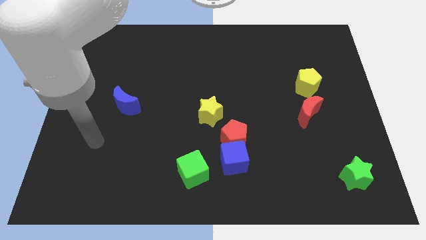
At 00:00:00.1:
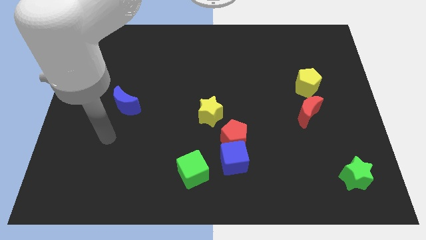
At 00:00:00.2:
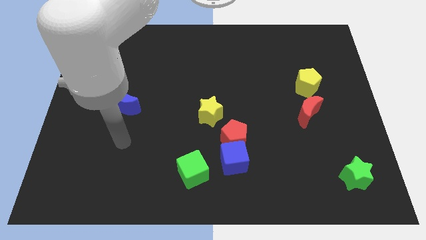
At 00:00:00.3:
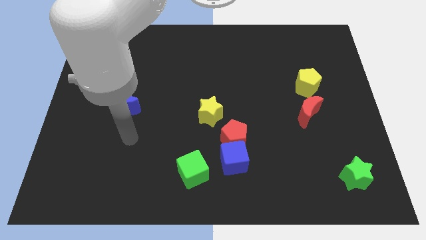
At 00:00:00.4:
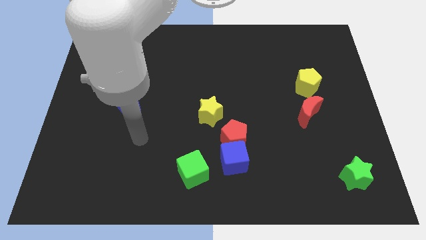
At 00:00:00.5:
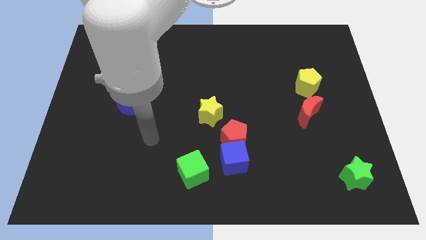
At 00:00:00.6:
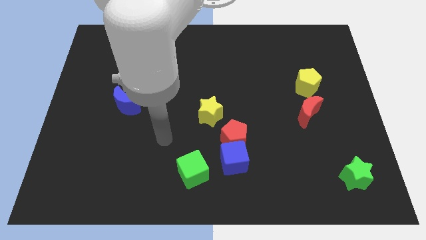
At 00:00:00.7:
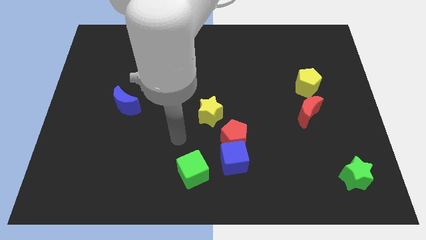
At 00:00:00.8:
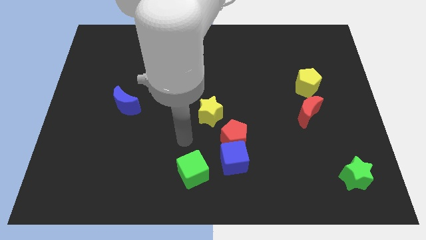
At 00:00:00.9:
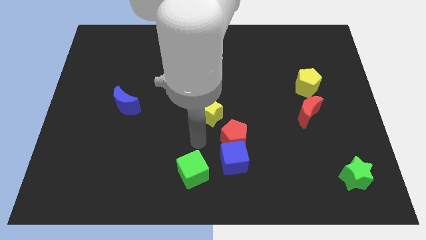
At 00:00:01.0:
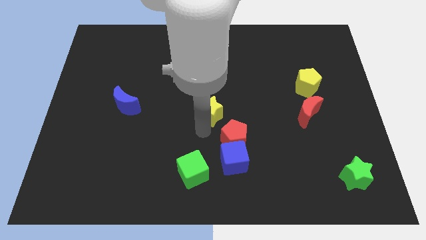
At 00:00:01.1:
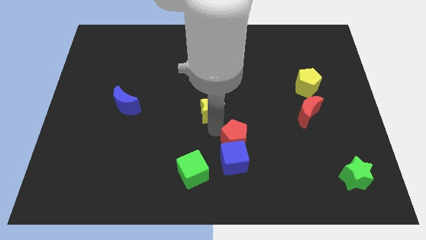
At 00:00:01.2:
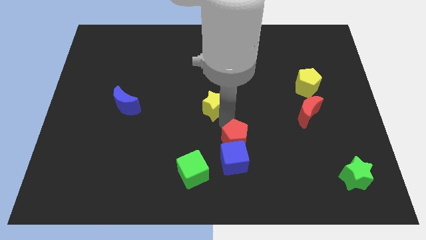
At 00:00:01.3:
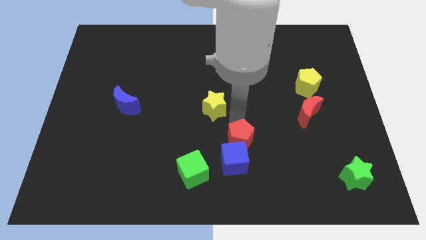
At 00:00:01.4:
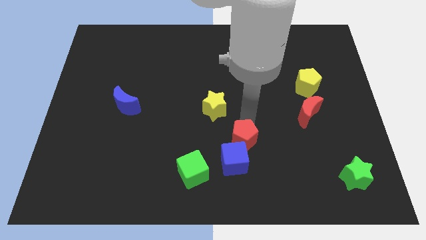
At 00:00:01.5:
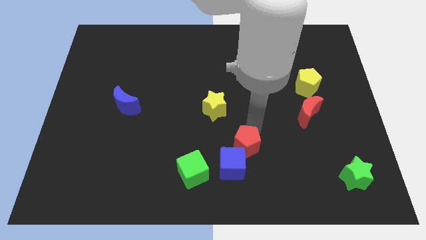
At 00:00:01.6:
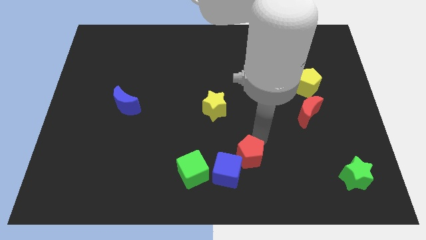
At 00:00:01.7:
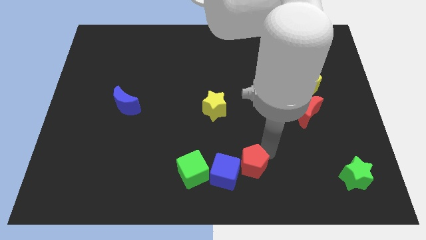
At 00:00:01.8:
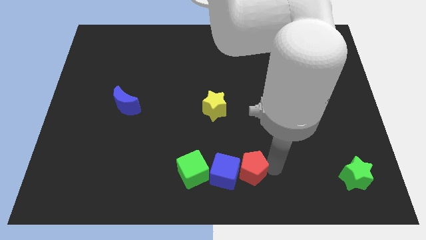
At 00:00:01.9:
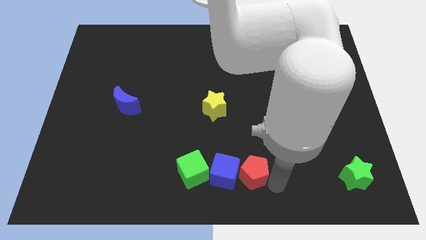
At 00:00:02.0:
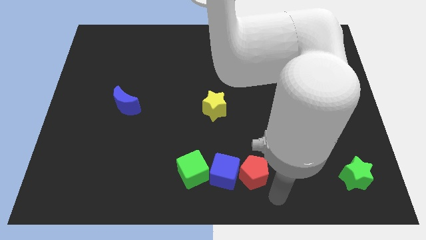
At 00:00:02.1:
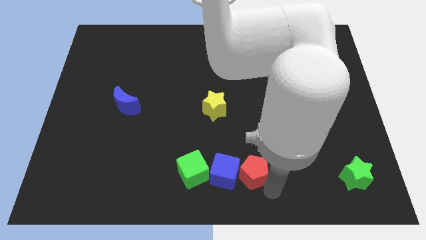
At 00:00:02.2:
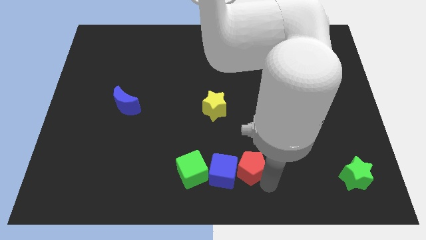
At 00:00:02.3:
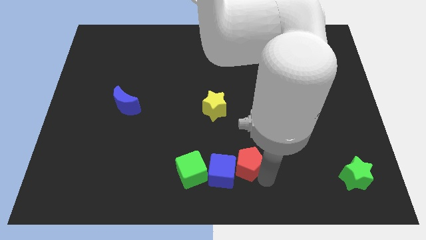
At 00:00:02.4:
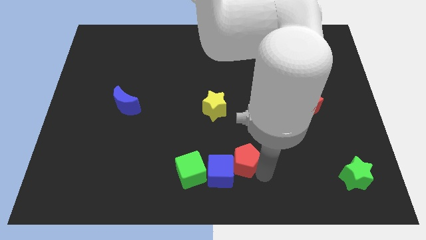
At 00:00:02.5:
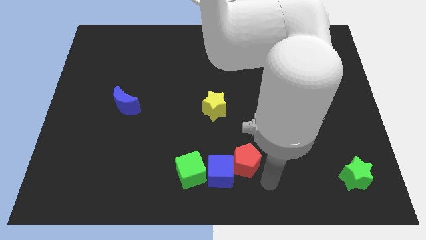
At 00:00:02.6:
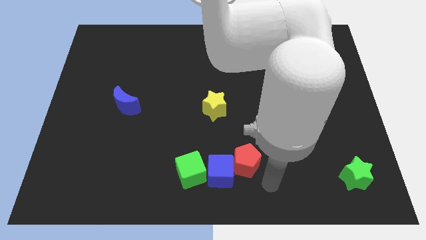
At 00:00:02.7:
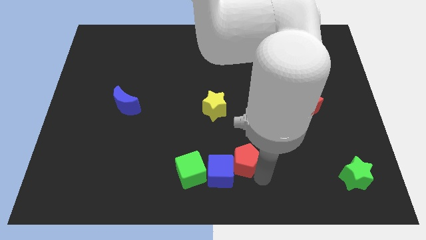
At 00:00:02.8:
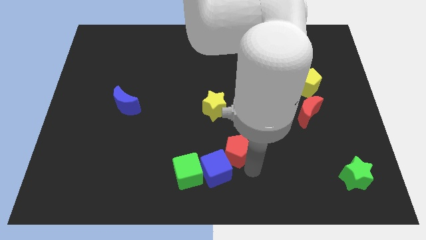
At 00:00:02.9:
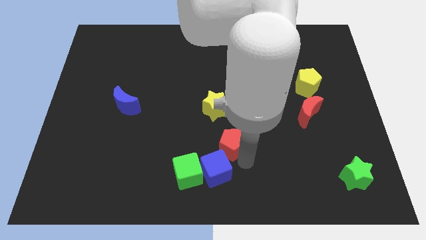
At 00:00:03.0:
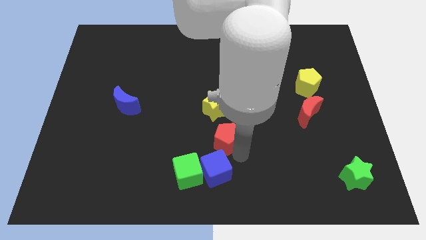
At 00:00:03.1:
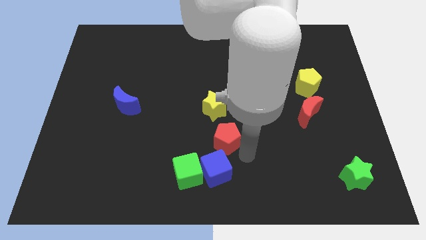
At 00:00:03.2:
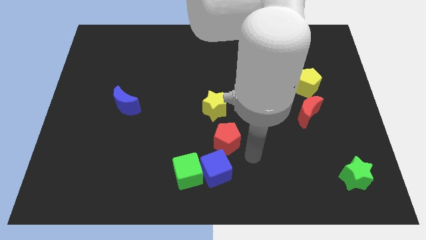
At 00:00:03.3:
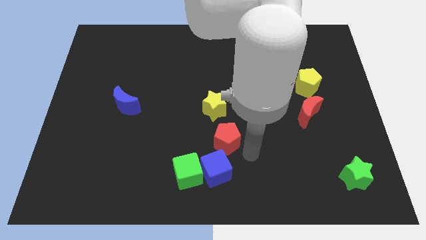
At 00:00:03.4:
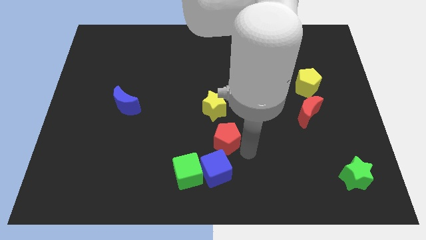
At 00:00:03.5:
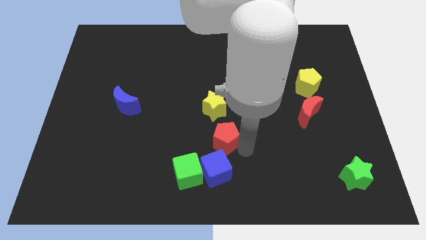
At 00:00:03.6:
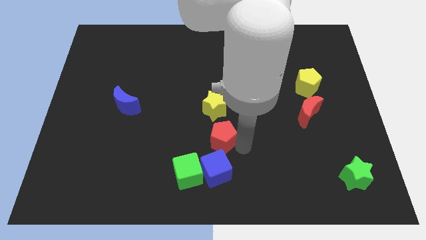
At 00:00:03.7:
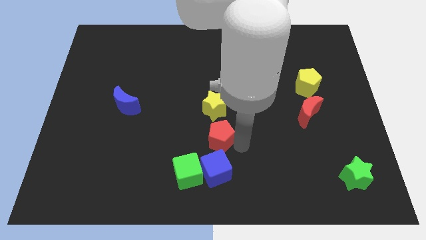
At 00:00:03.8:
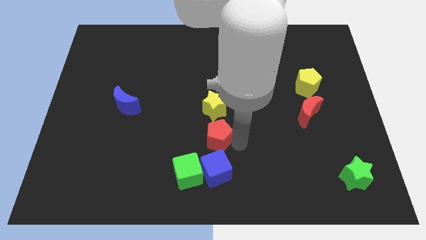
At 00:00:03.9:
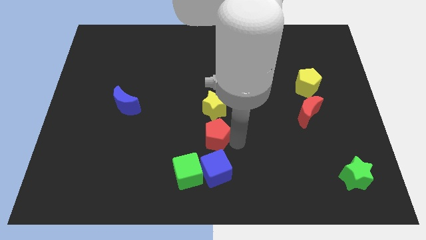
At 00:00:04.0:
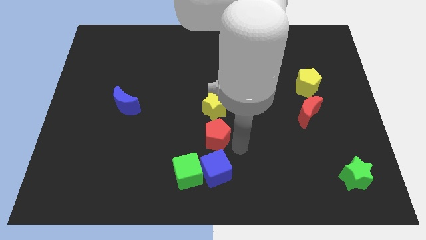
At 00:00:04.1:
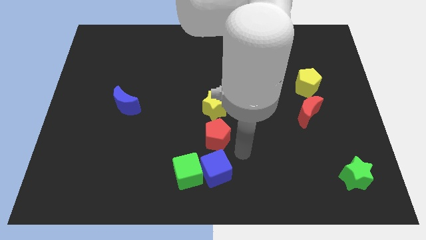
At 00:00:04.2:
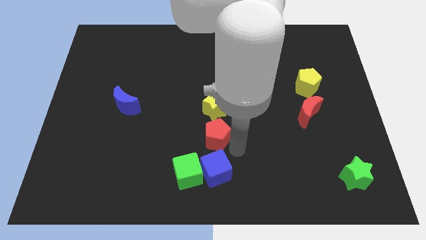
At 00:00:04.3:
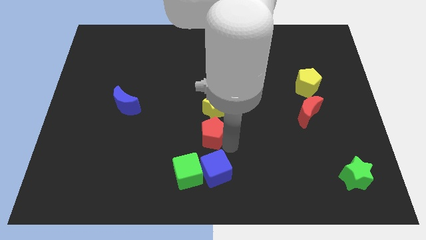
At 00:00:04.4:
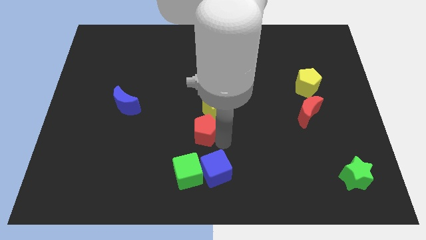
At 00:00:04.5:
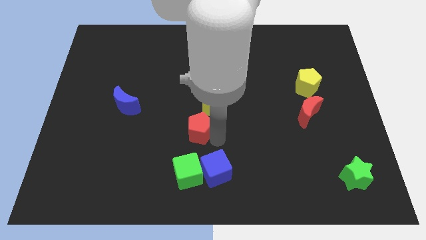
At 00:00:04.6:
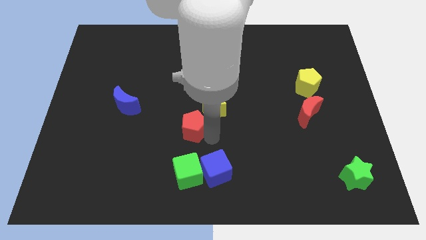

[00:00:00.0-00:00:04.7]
slightly push the red pentagon up and then to the left

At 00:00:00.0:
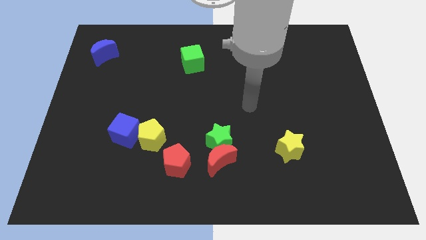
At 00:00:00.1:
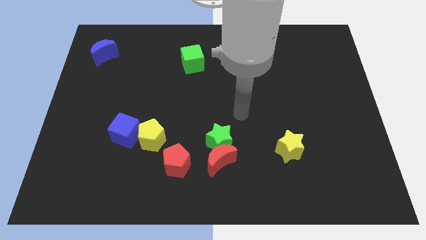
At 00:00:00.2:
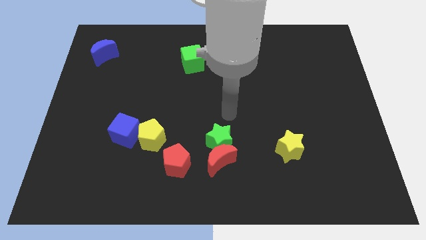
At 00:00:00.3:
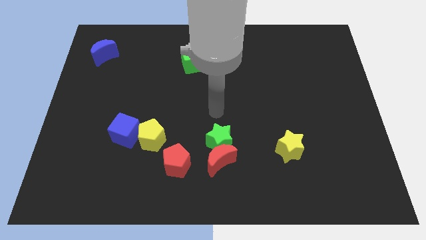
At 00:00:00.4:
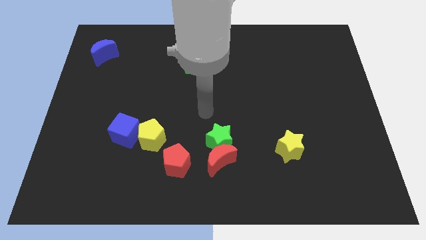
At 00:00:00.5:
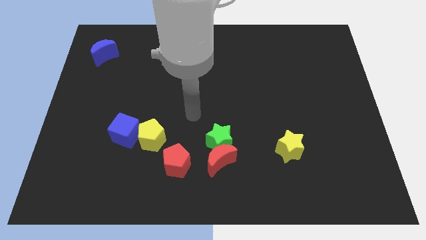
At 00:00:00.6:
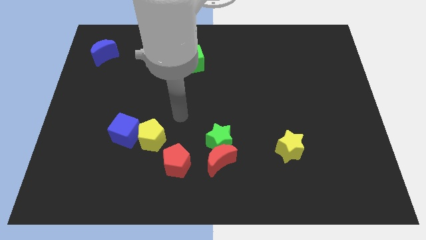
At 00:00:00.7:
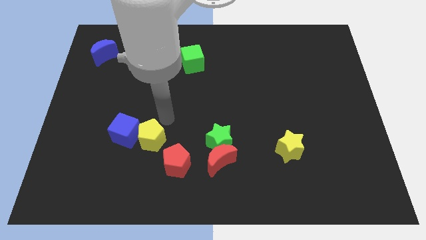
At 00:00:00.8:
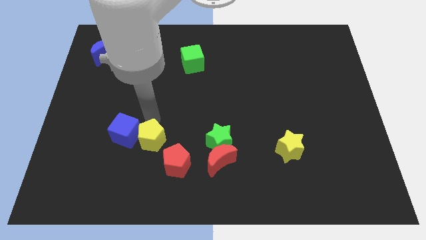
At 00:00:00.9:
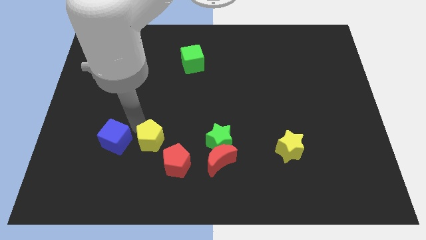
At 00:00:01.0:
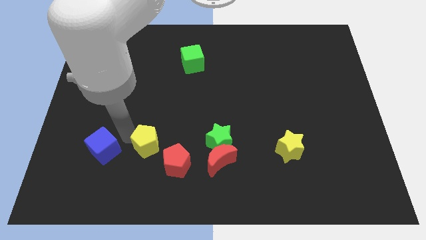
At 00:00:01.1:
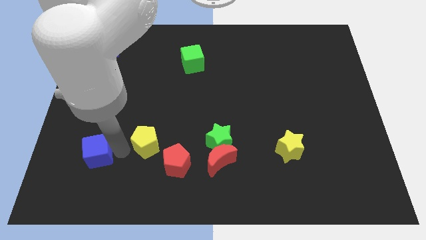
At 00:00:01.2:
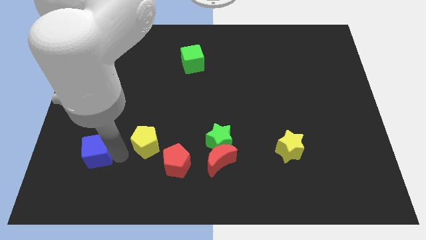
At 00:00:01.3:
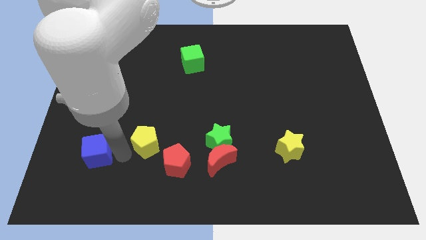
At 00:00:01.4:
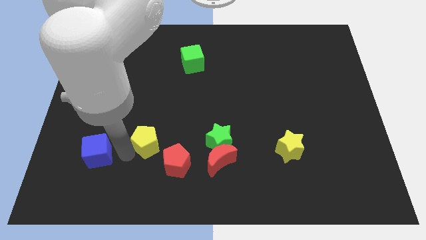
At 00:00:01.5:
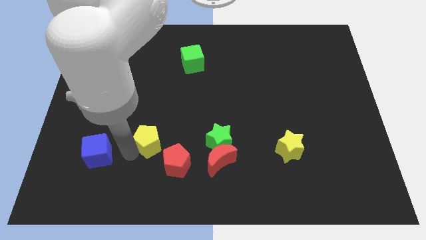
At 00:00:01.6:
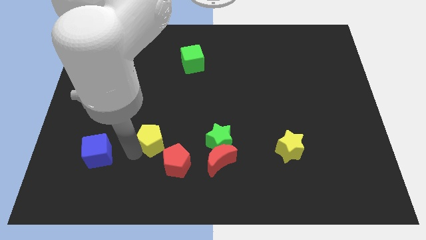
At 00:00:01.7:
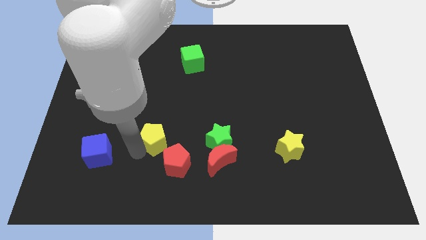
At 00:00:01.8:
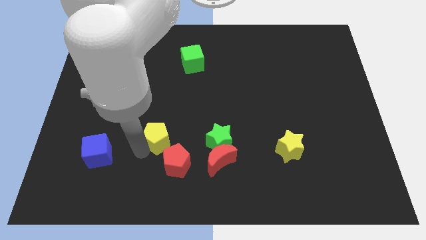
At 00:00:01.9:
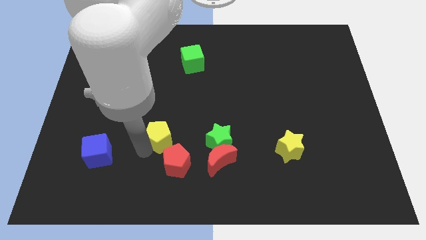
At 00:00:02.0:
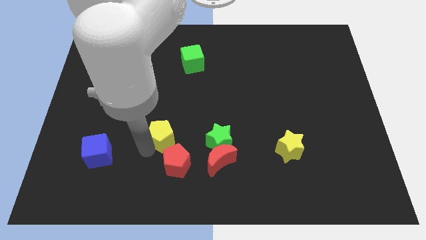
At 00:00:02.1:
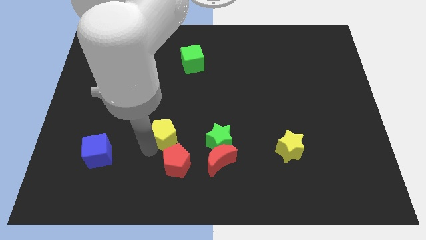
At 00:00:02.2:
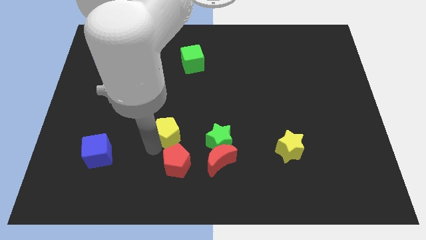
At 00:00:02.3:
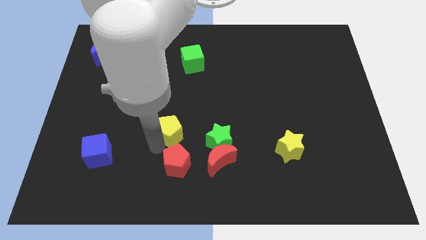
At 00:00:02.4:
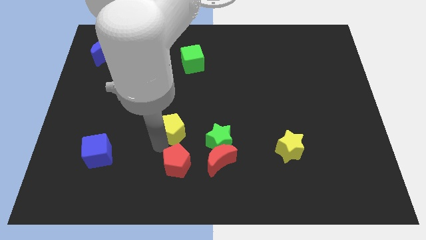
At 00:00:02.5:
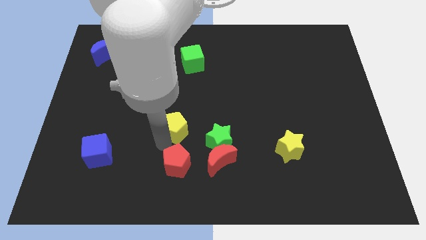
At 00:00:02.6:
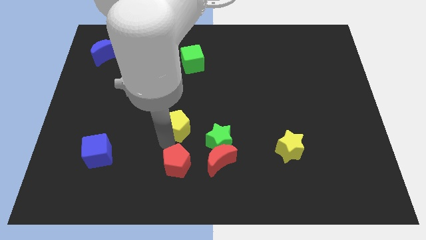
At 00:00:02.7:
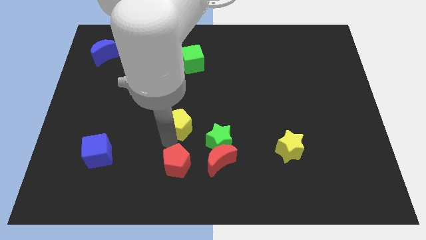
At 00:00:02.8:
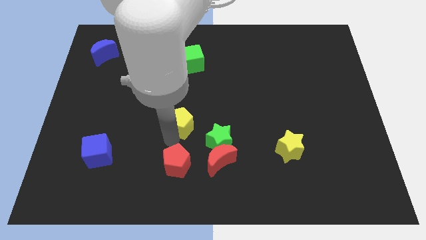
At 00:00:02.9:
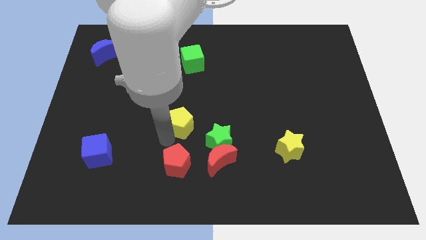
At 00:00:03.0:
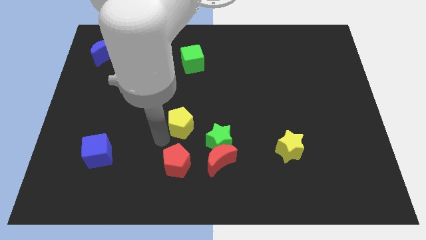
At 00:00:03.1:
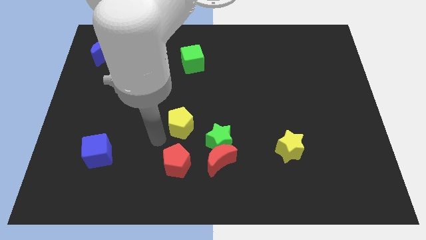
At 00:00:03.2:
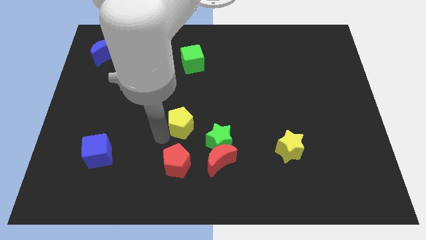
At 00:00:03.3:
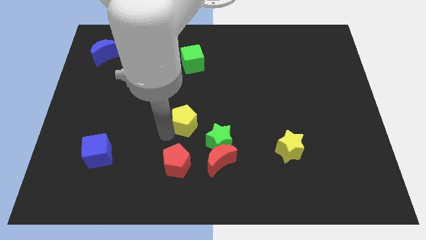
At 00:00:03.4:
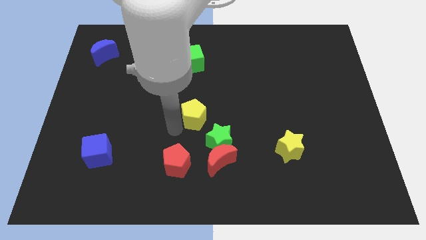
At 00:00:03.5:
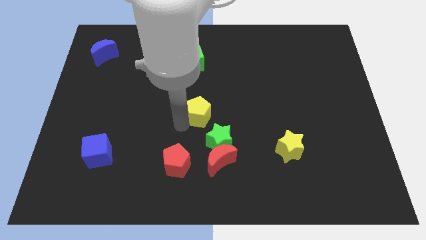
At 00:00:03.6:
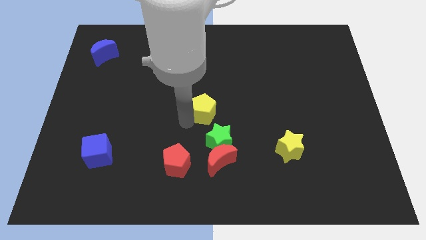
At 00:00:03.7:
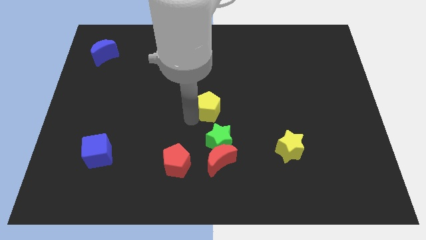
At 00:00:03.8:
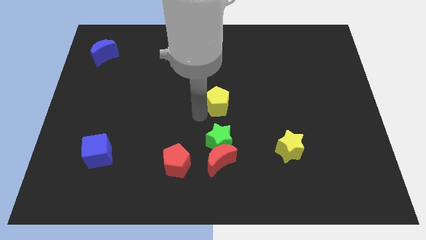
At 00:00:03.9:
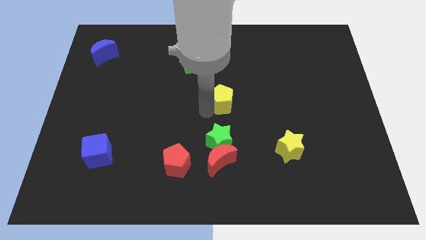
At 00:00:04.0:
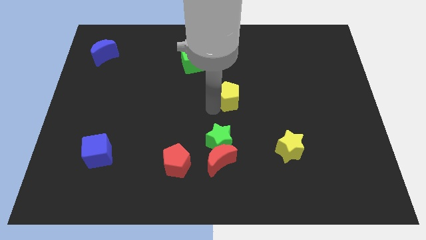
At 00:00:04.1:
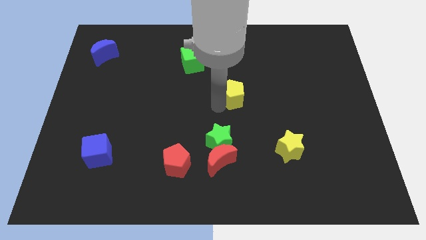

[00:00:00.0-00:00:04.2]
push the yellow pentagon upwards and right diagonally
